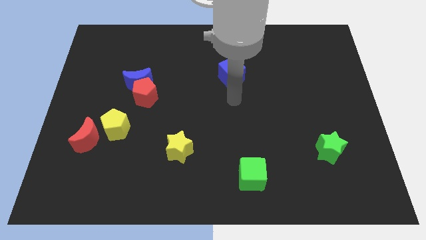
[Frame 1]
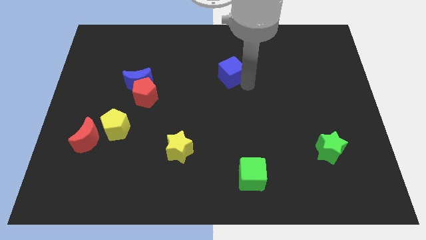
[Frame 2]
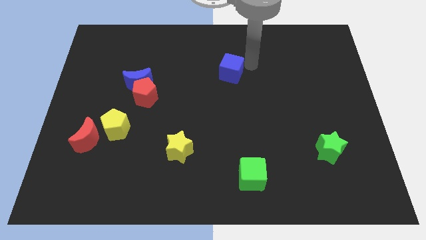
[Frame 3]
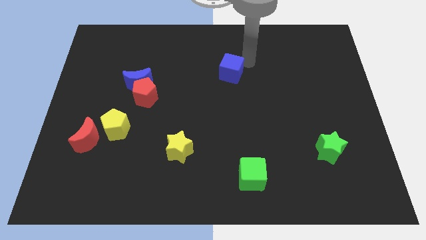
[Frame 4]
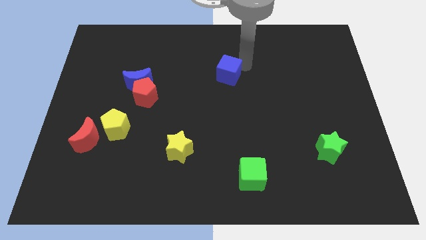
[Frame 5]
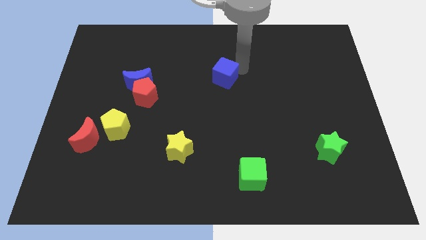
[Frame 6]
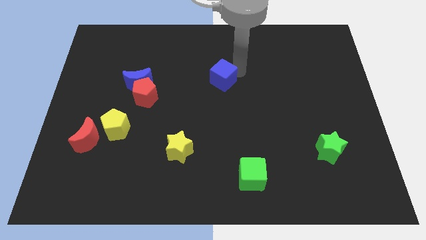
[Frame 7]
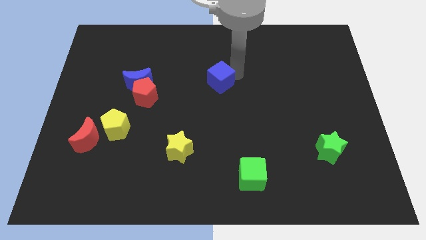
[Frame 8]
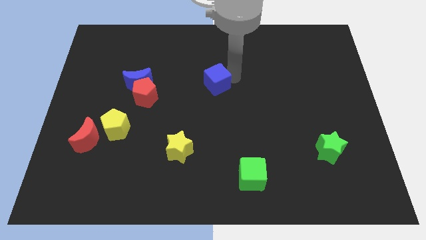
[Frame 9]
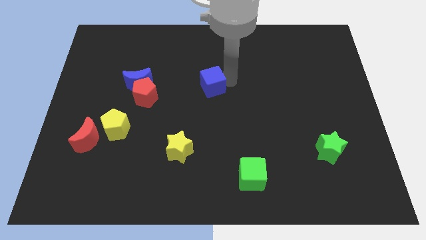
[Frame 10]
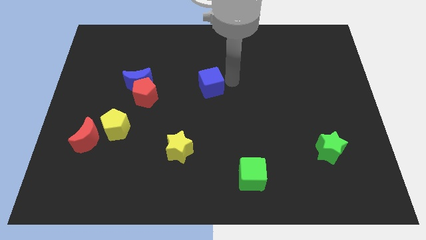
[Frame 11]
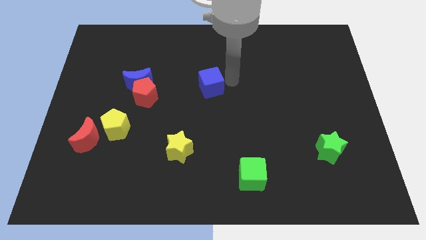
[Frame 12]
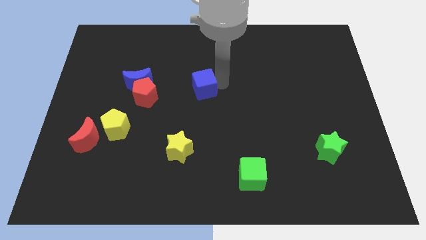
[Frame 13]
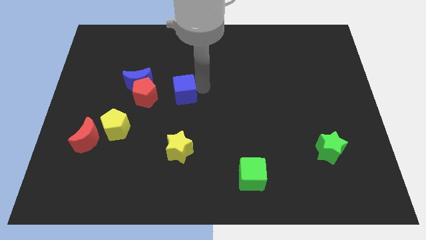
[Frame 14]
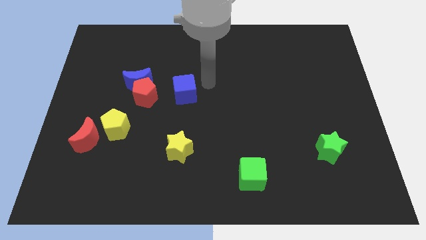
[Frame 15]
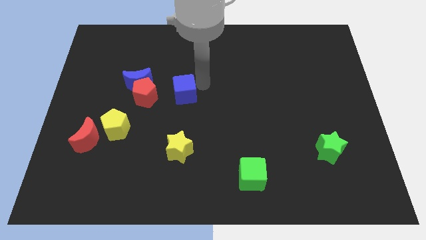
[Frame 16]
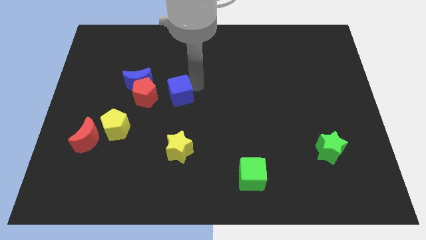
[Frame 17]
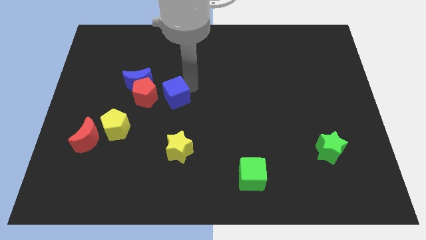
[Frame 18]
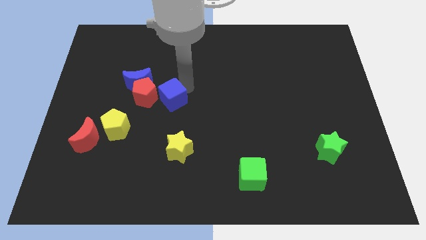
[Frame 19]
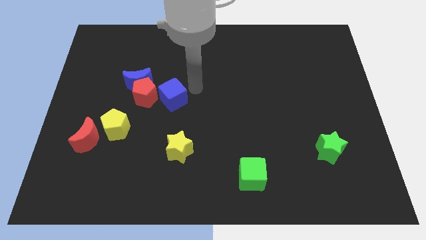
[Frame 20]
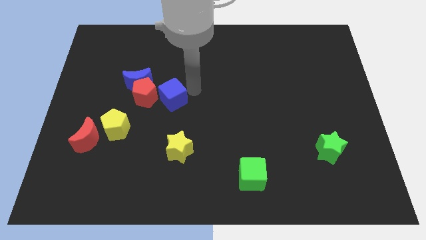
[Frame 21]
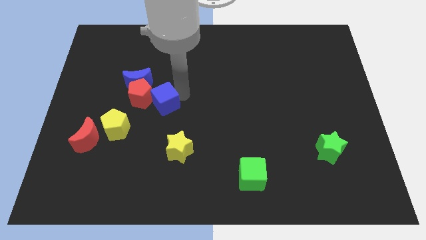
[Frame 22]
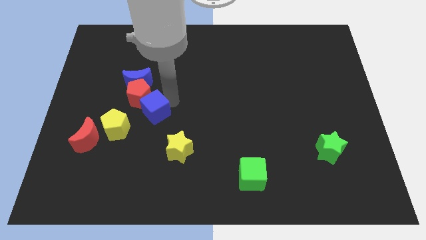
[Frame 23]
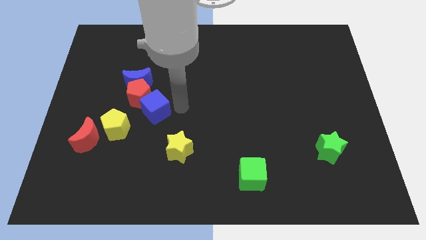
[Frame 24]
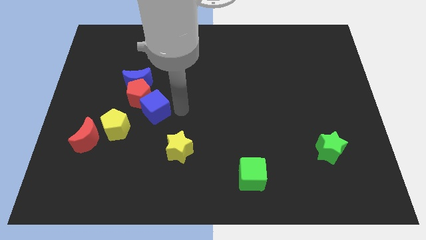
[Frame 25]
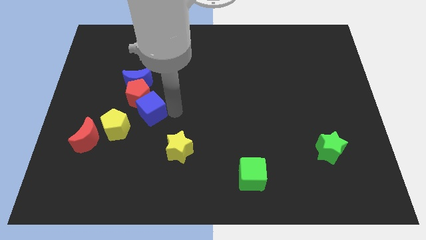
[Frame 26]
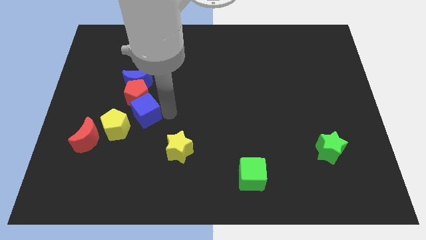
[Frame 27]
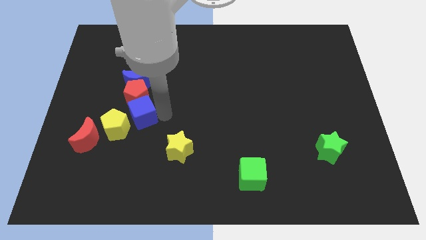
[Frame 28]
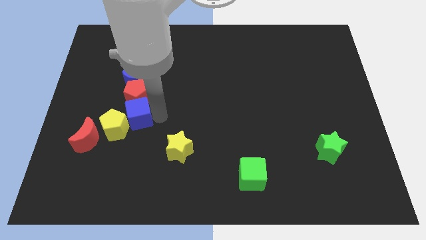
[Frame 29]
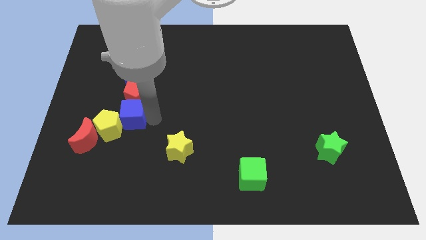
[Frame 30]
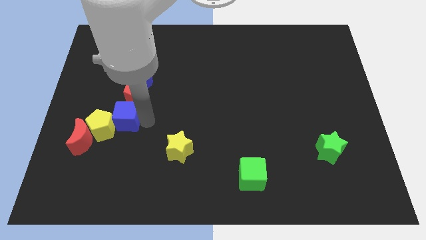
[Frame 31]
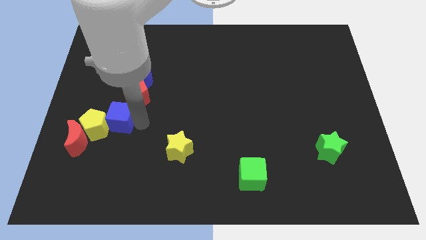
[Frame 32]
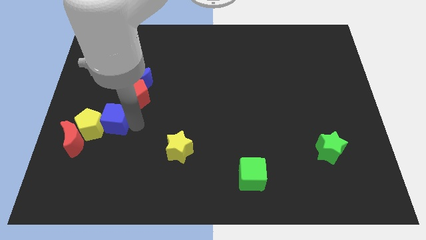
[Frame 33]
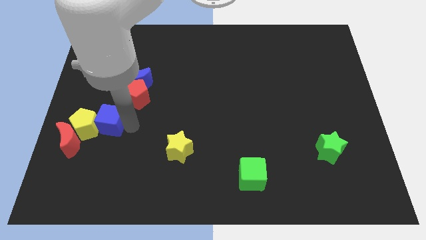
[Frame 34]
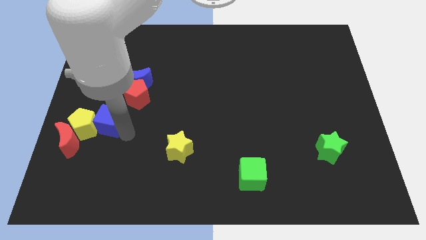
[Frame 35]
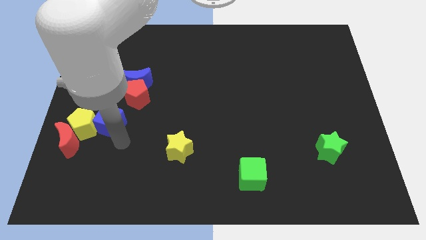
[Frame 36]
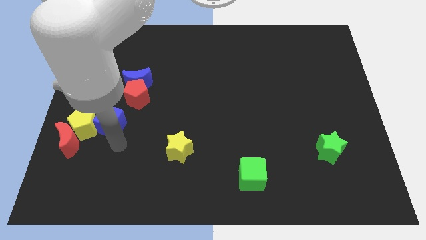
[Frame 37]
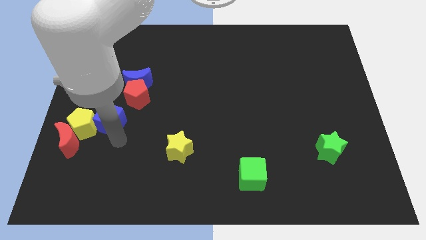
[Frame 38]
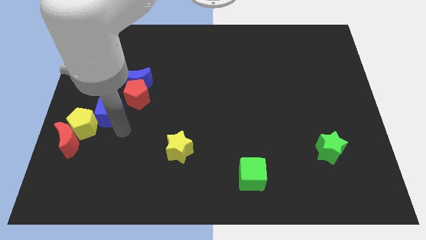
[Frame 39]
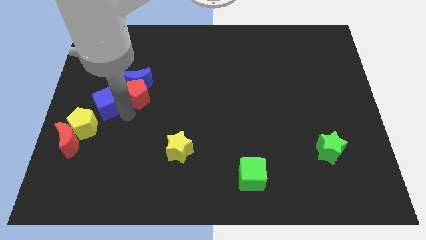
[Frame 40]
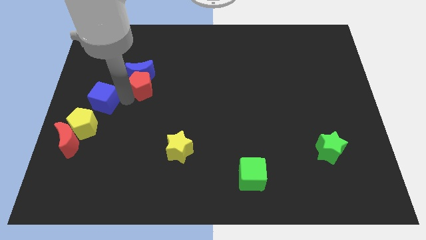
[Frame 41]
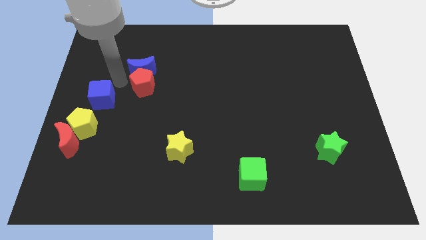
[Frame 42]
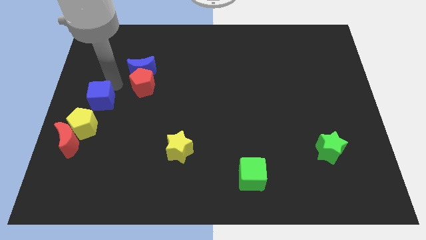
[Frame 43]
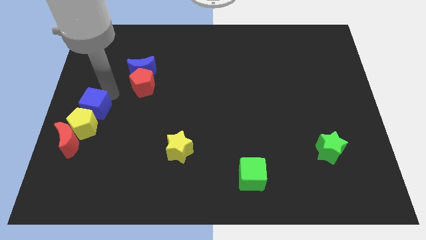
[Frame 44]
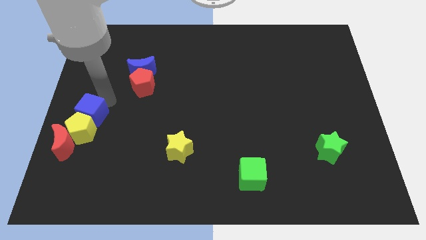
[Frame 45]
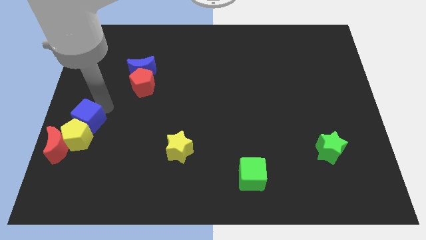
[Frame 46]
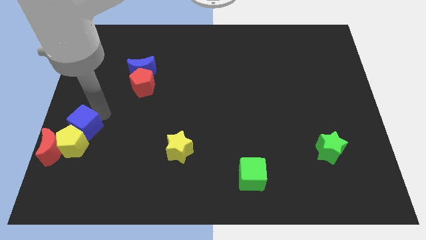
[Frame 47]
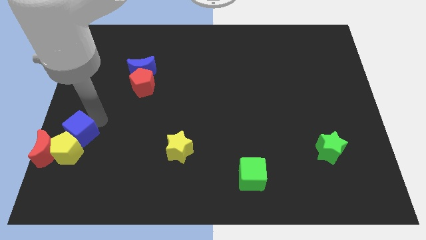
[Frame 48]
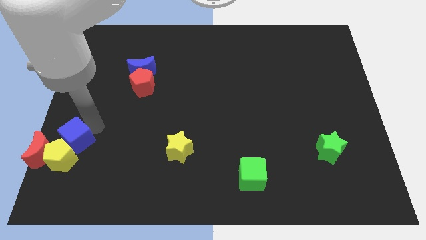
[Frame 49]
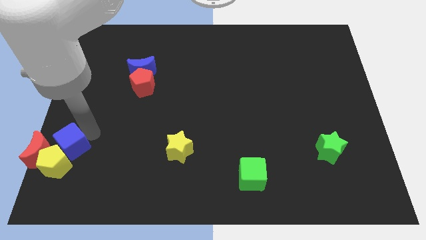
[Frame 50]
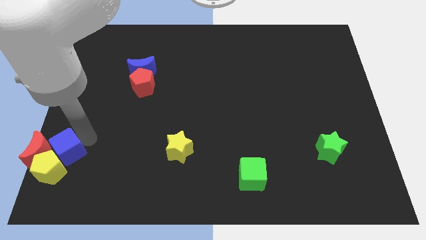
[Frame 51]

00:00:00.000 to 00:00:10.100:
put the blue cube towards the red moon

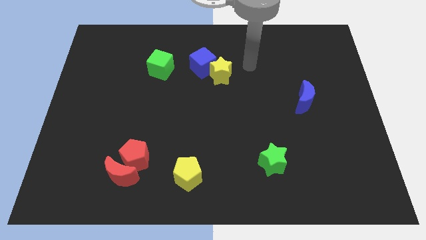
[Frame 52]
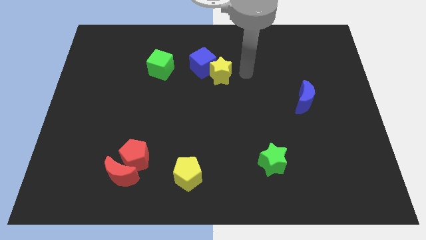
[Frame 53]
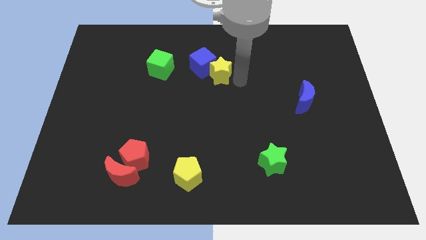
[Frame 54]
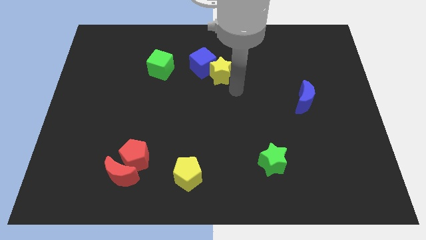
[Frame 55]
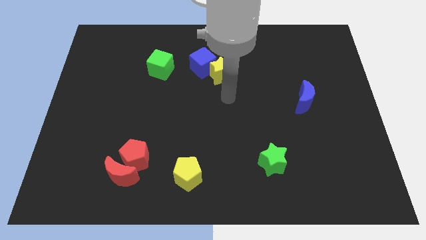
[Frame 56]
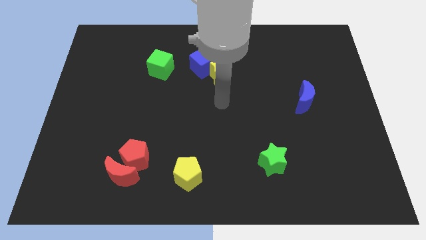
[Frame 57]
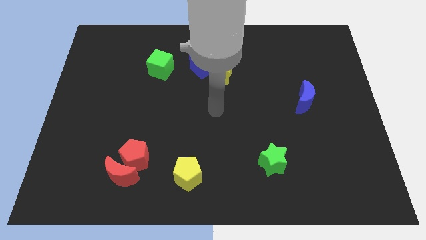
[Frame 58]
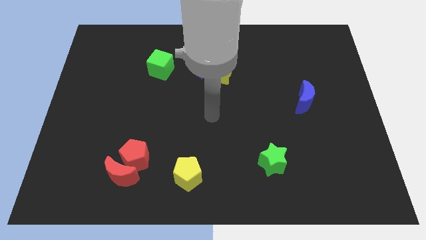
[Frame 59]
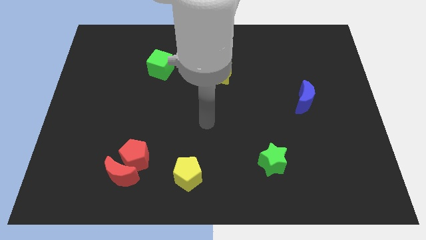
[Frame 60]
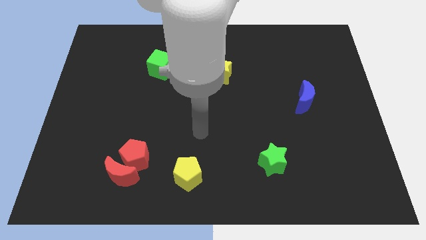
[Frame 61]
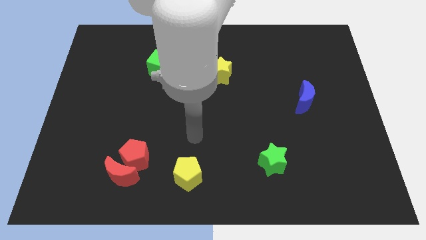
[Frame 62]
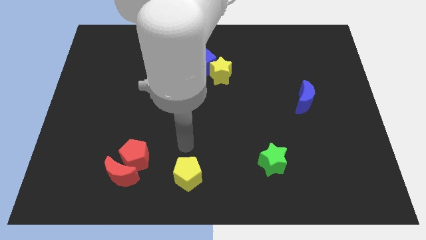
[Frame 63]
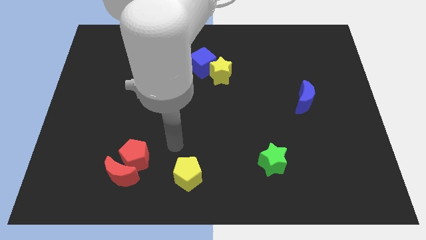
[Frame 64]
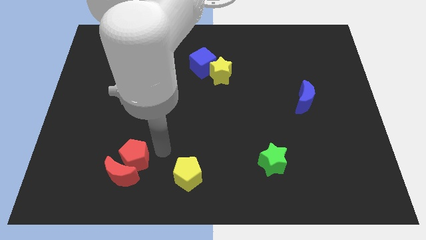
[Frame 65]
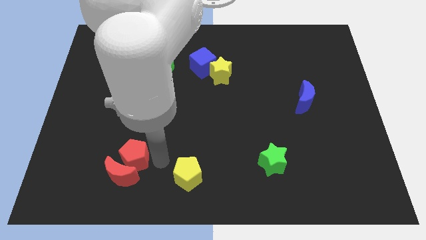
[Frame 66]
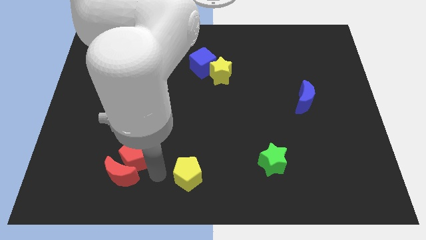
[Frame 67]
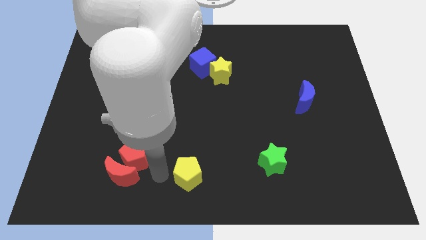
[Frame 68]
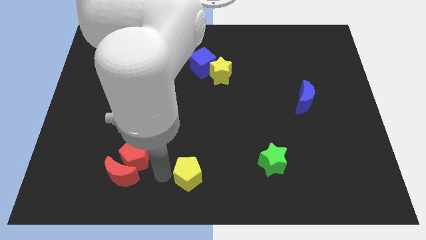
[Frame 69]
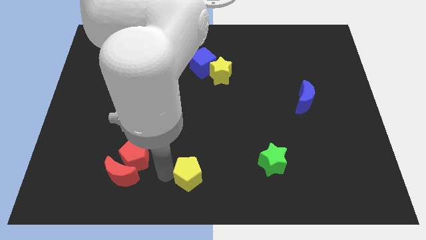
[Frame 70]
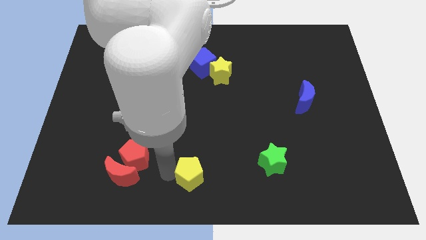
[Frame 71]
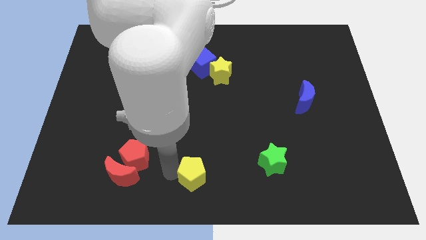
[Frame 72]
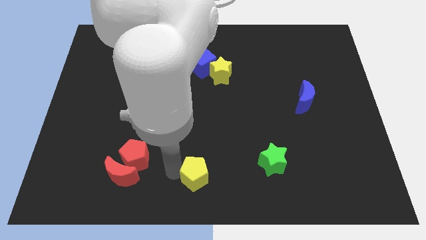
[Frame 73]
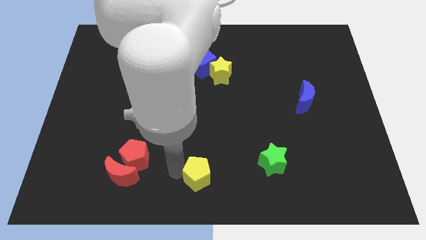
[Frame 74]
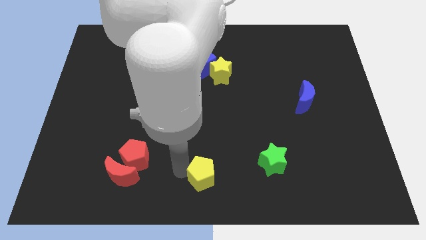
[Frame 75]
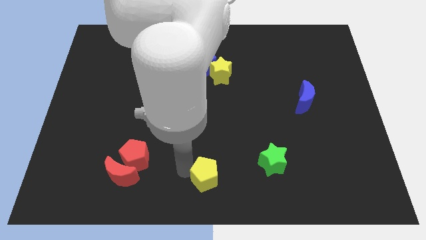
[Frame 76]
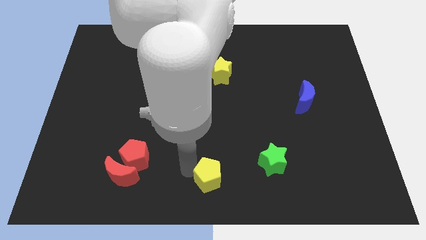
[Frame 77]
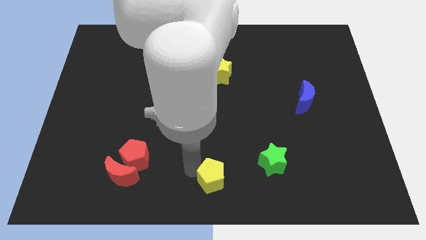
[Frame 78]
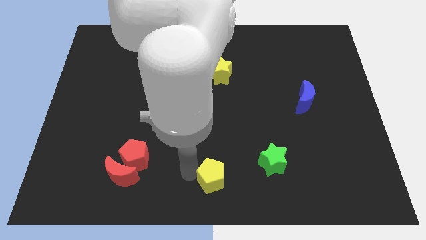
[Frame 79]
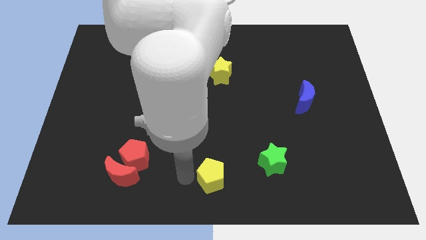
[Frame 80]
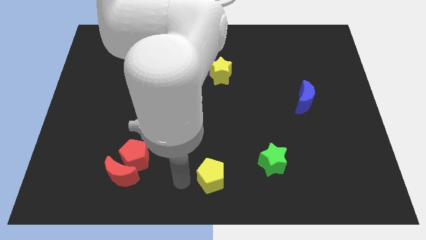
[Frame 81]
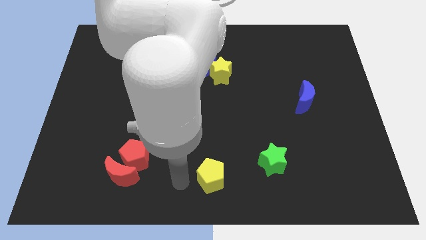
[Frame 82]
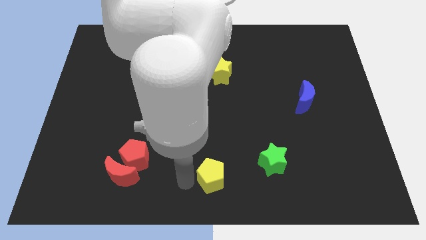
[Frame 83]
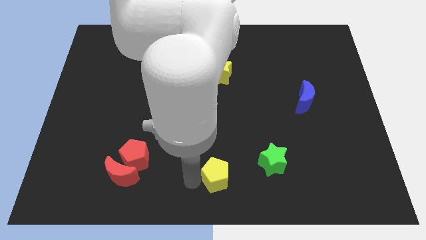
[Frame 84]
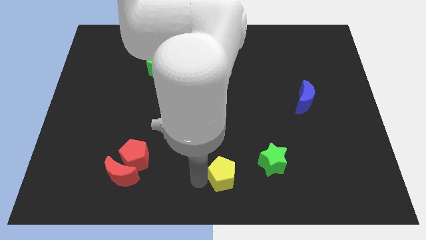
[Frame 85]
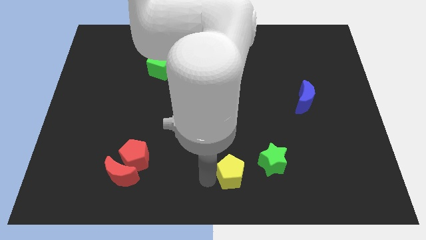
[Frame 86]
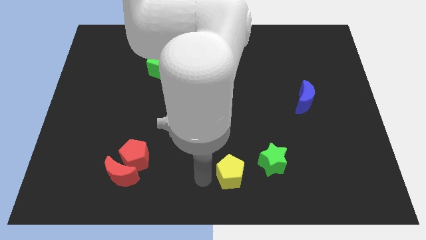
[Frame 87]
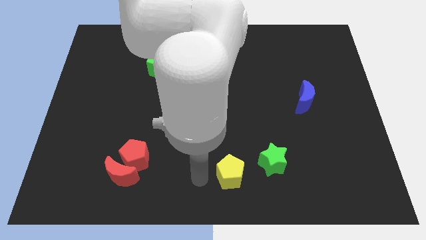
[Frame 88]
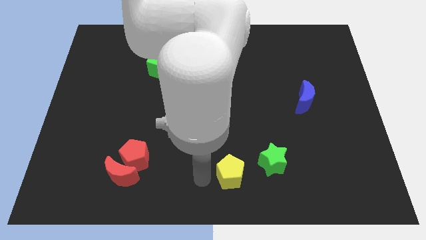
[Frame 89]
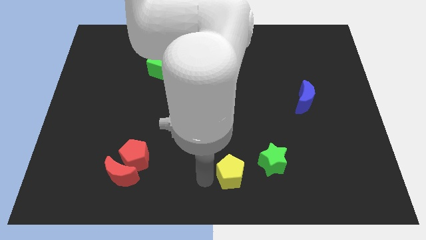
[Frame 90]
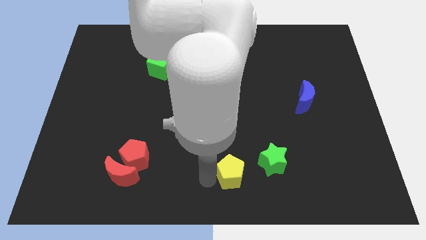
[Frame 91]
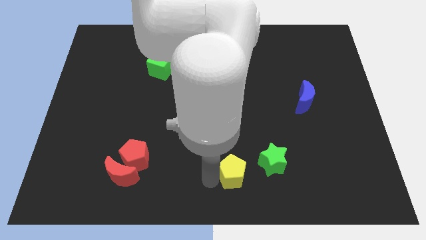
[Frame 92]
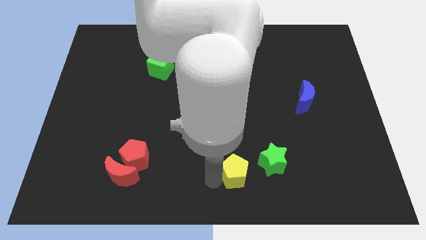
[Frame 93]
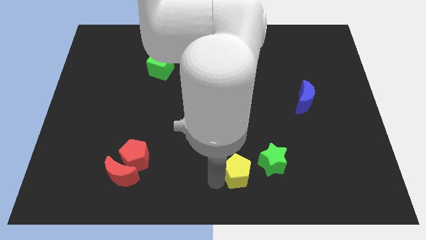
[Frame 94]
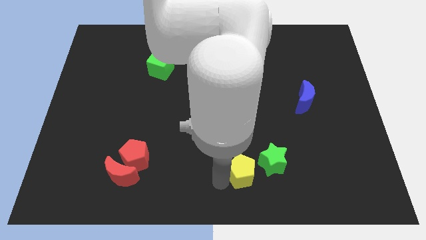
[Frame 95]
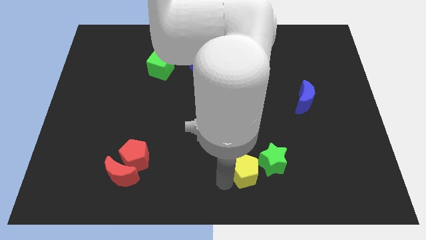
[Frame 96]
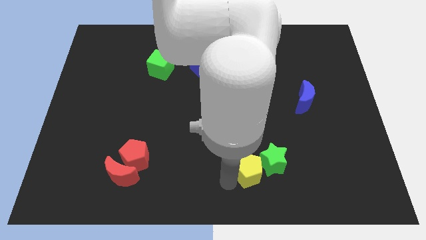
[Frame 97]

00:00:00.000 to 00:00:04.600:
slide the yellow pentagon towards the green star
